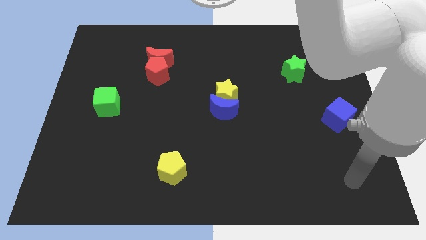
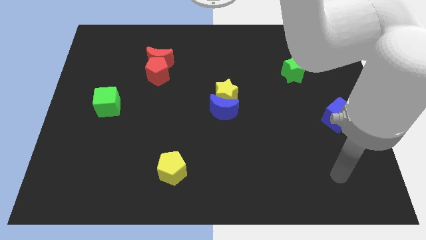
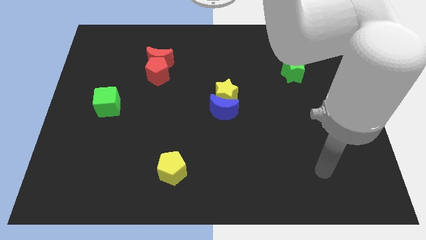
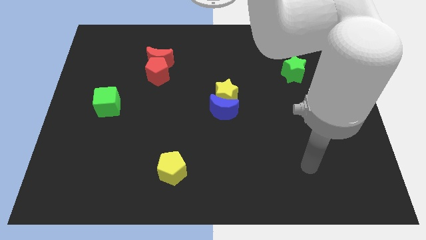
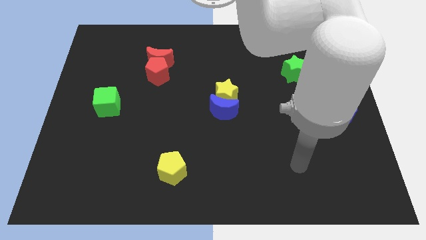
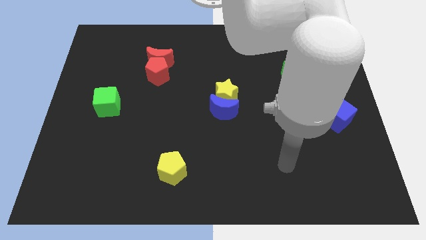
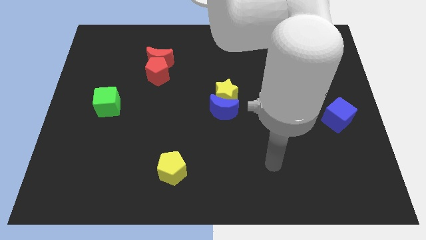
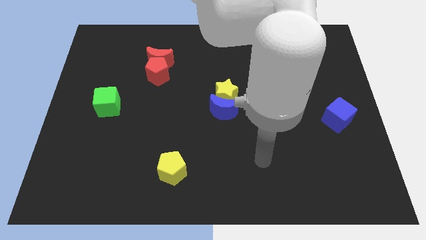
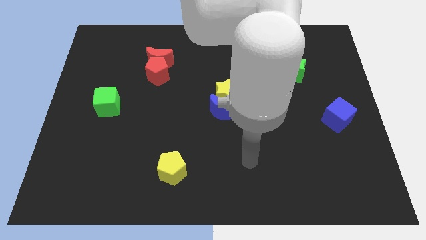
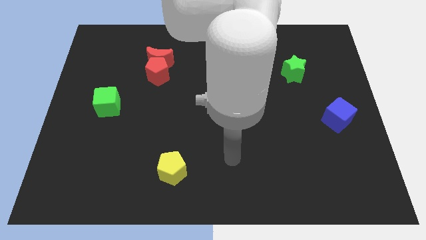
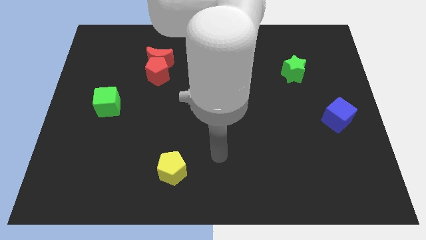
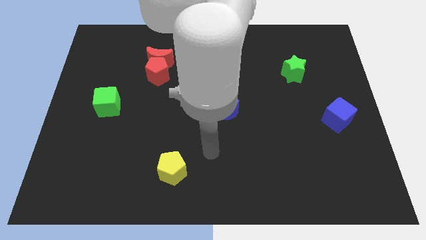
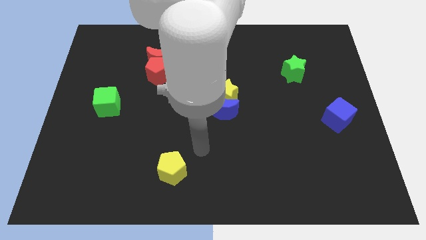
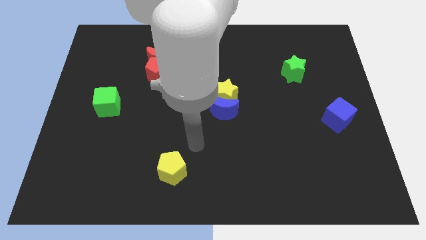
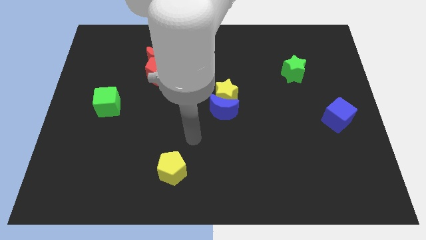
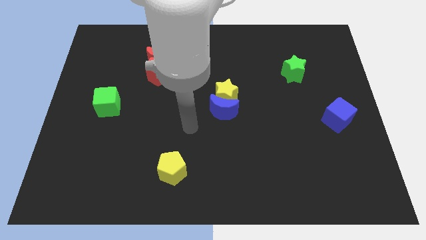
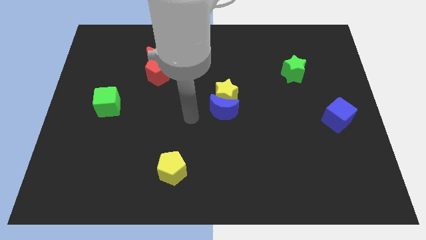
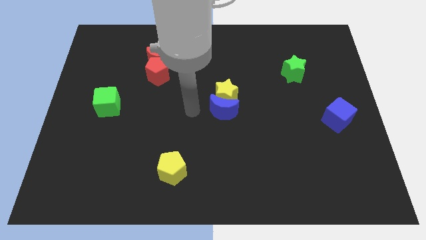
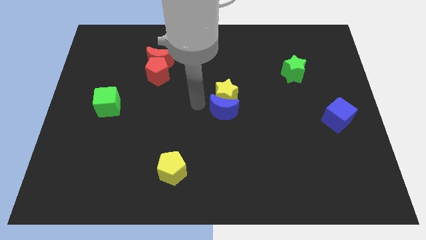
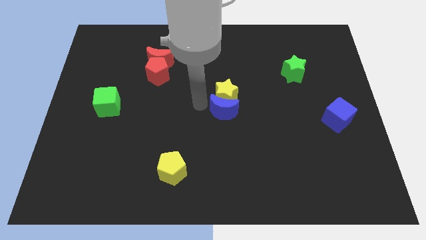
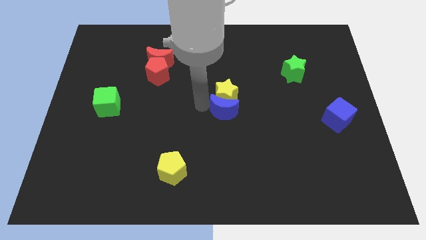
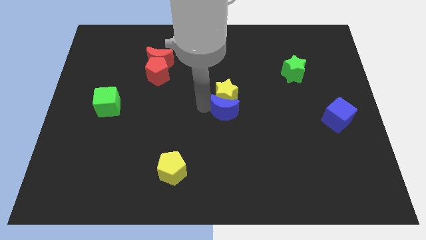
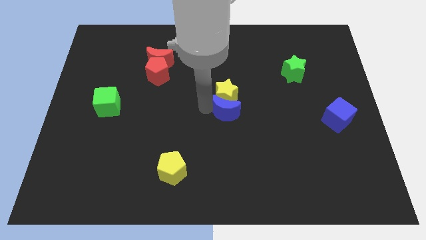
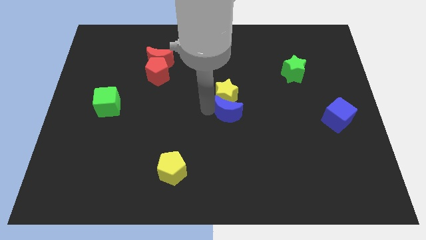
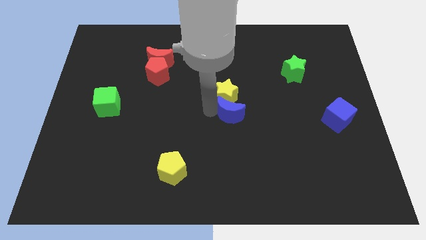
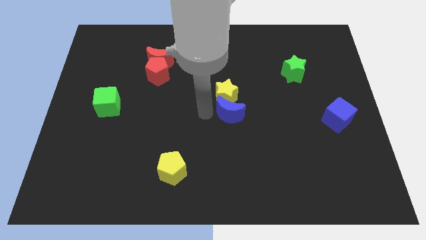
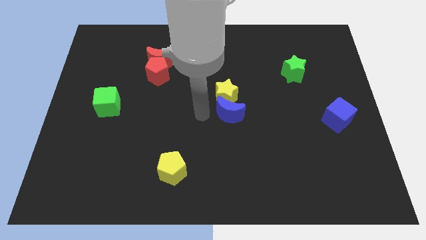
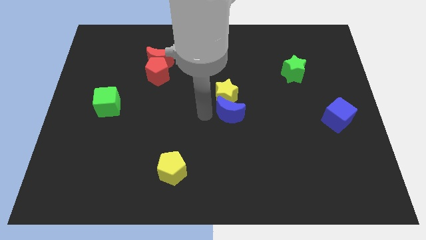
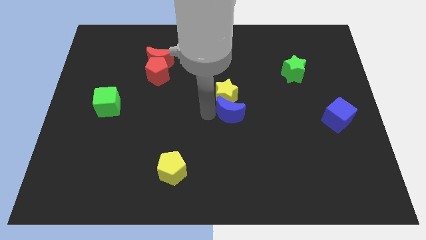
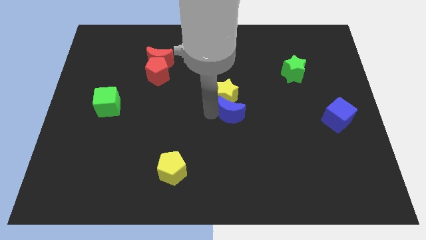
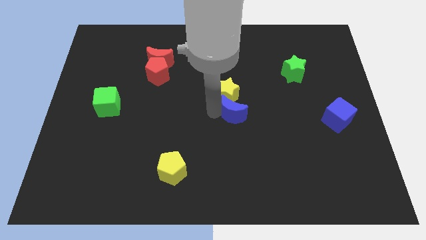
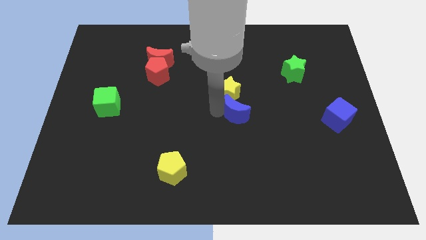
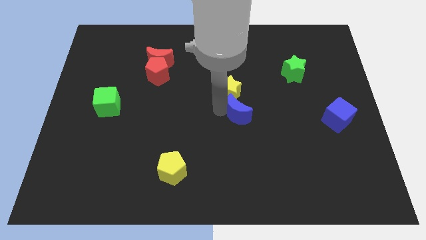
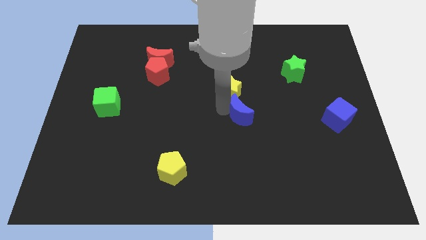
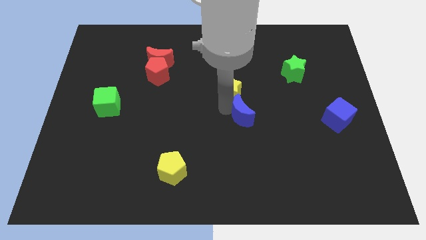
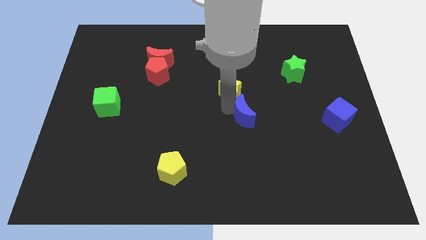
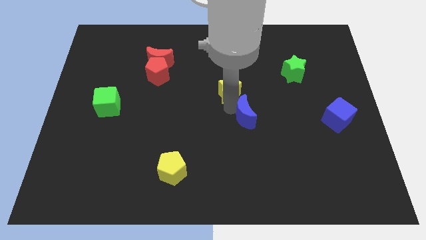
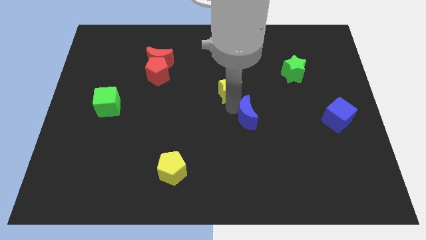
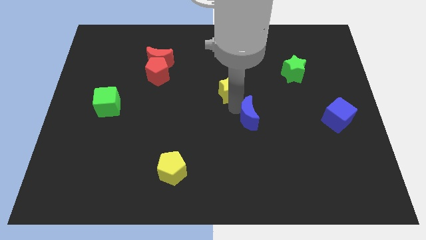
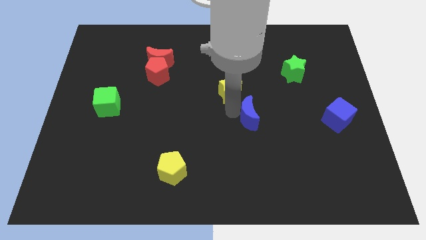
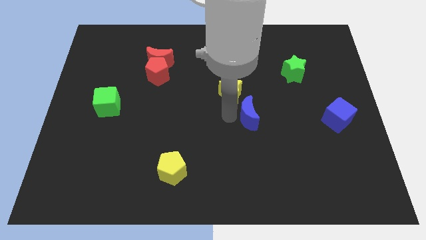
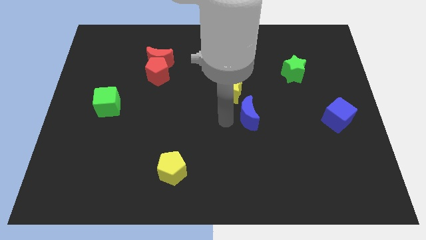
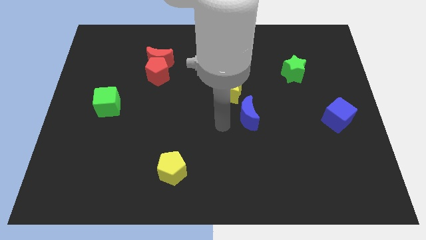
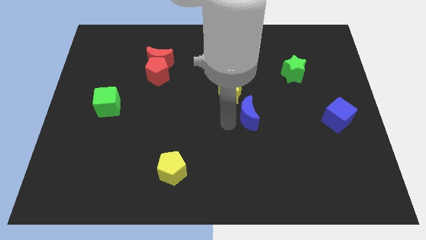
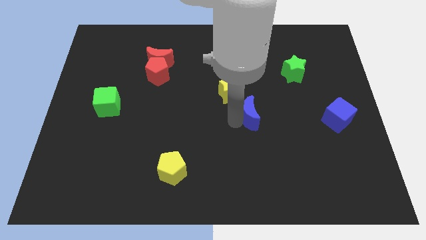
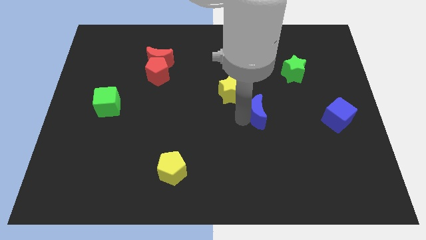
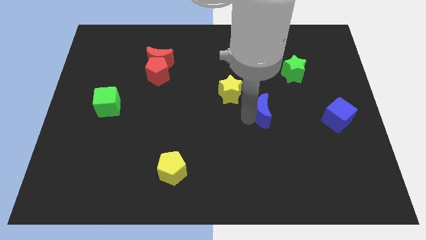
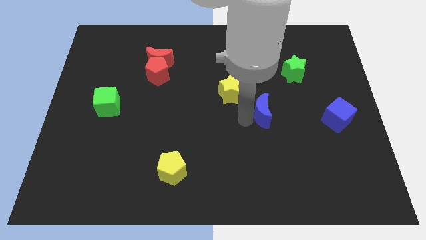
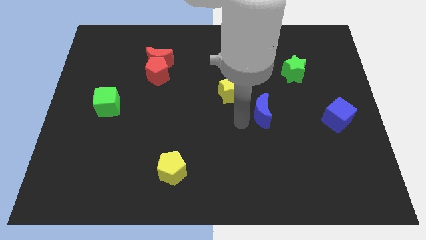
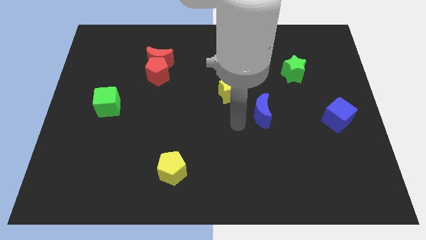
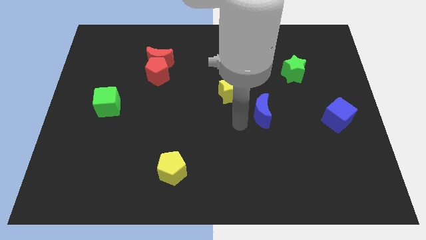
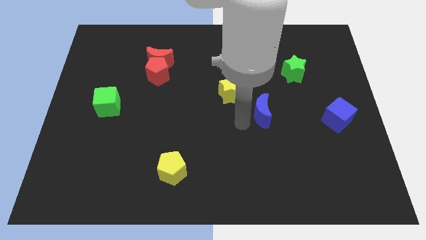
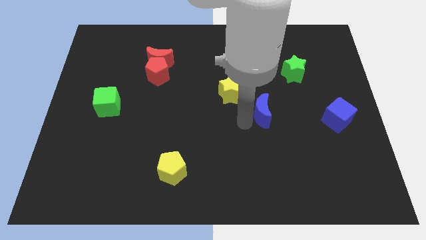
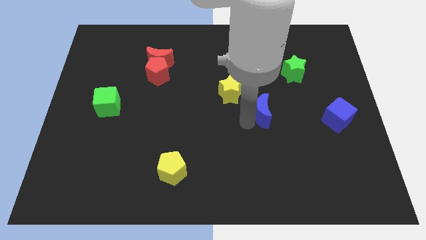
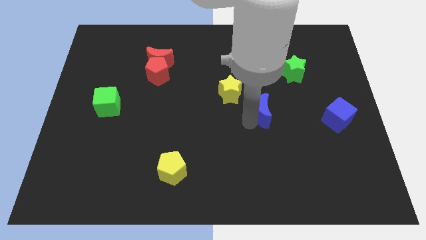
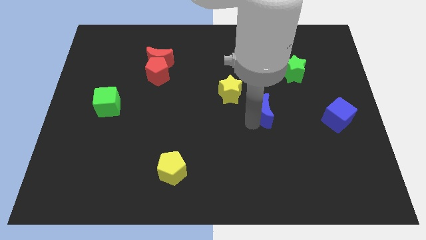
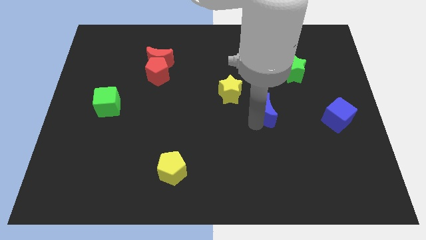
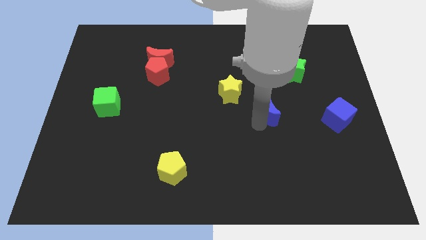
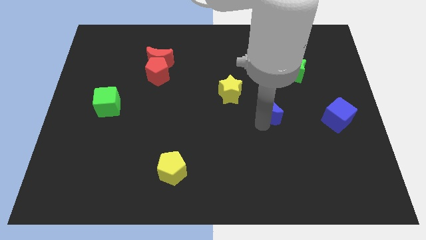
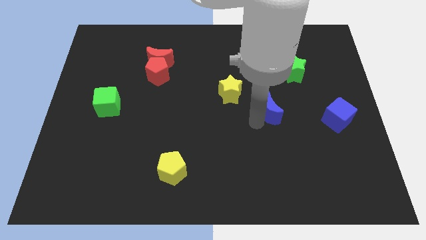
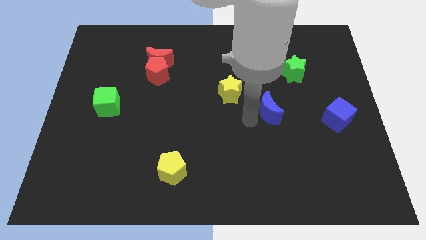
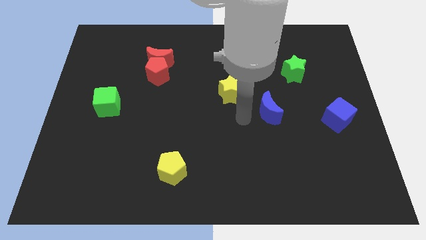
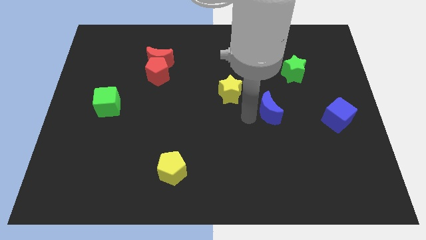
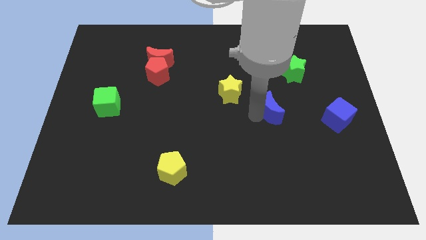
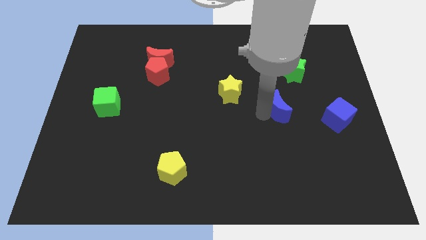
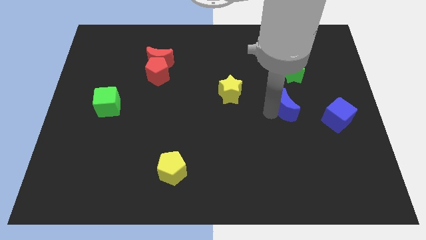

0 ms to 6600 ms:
move the blue moon below the green star
